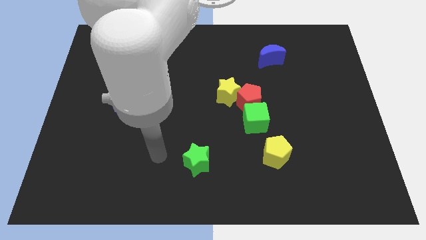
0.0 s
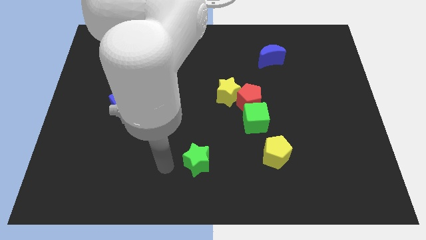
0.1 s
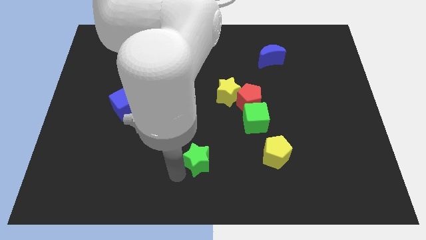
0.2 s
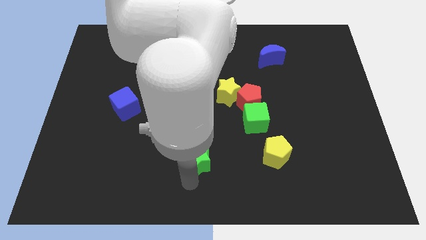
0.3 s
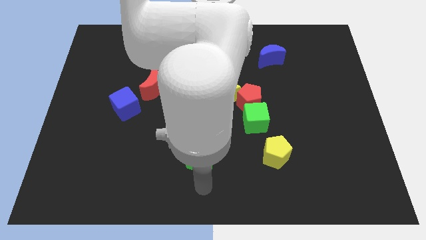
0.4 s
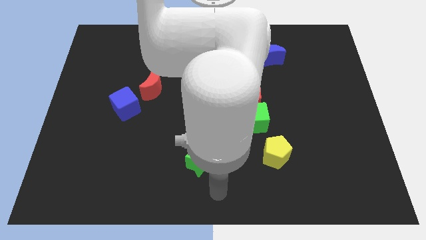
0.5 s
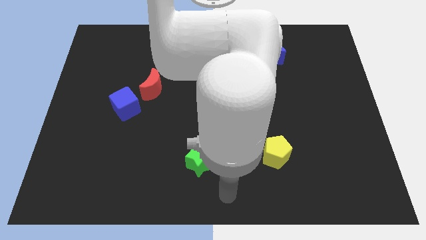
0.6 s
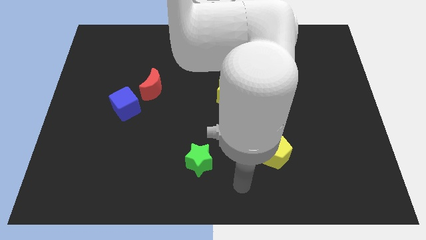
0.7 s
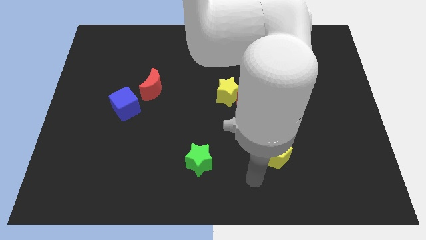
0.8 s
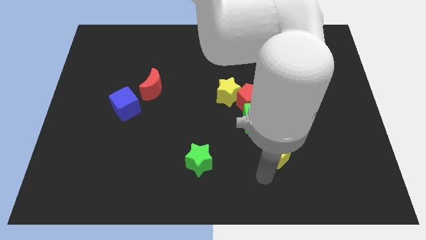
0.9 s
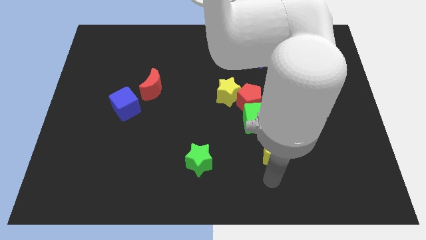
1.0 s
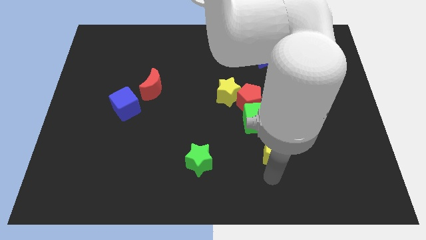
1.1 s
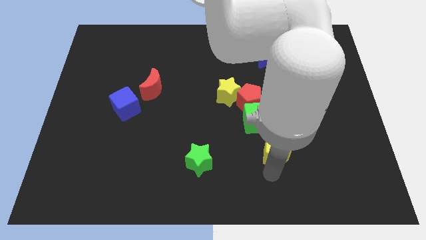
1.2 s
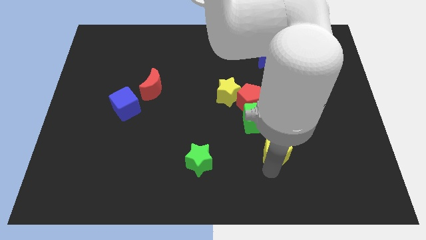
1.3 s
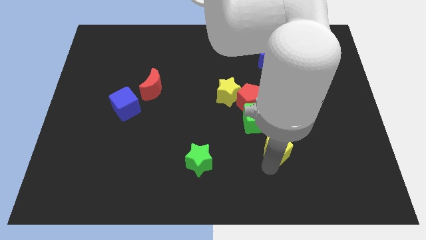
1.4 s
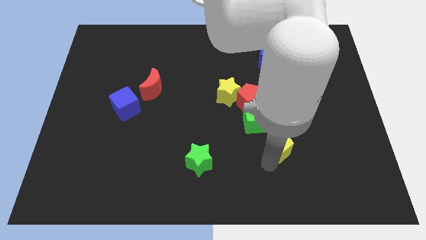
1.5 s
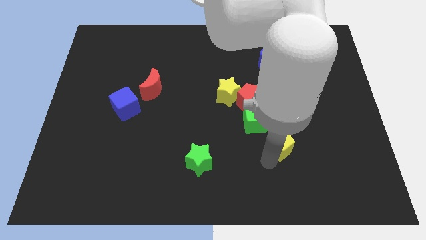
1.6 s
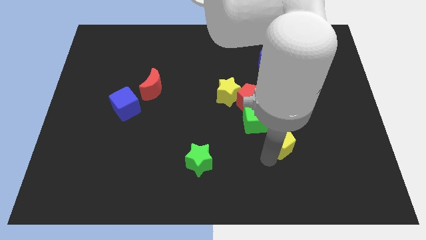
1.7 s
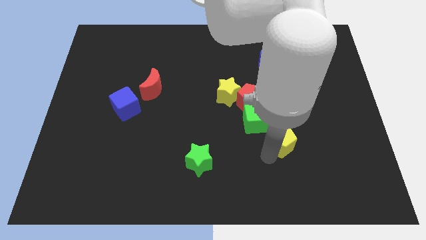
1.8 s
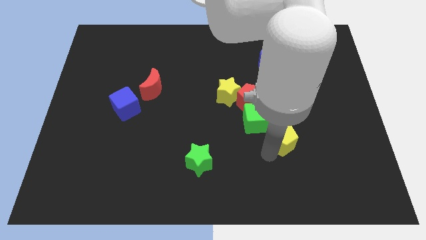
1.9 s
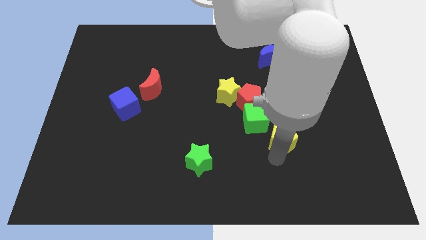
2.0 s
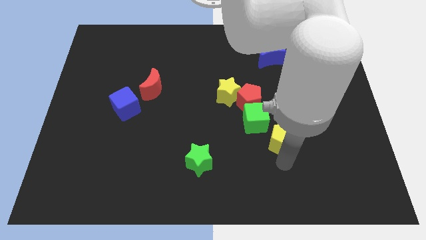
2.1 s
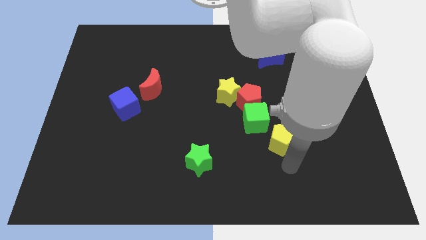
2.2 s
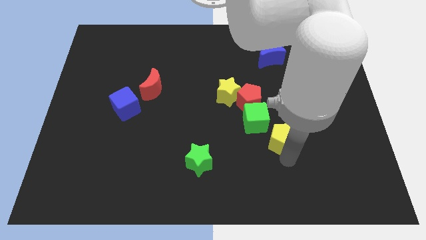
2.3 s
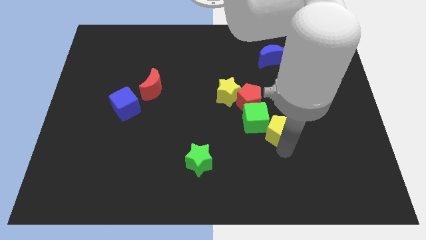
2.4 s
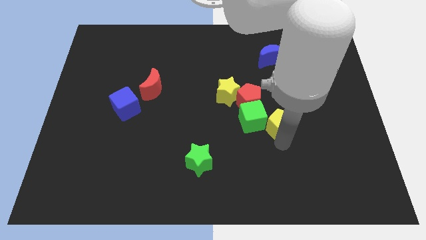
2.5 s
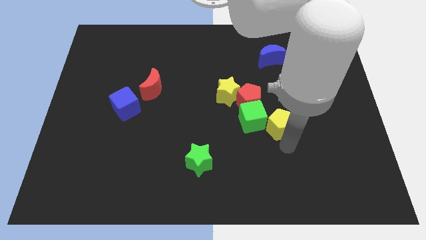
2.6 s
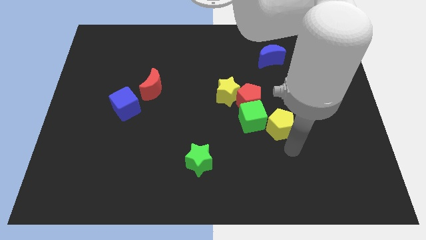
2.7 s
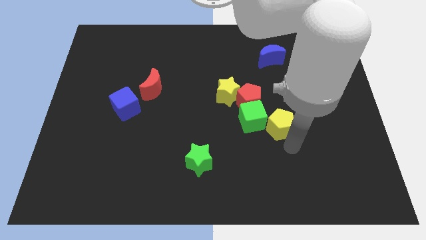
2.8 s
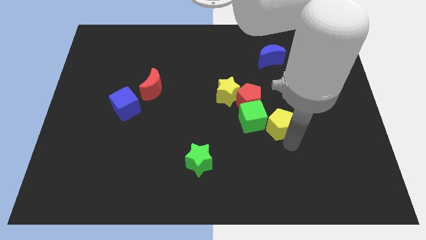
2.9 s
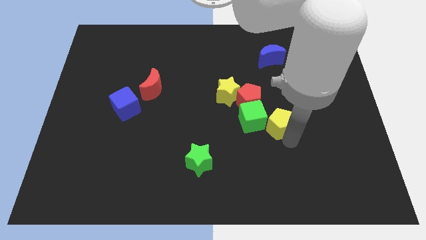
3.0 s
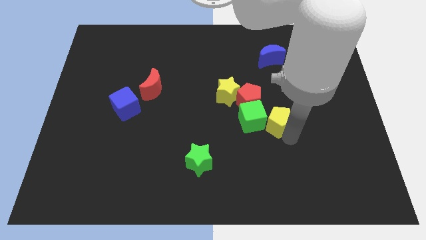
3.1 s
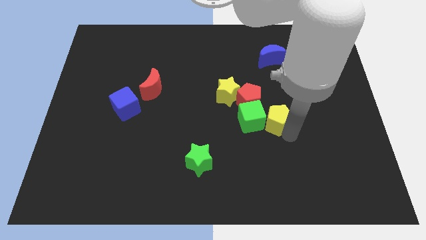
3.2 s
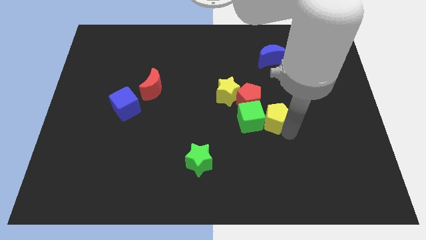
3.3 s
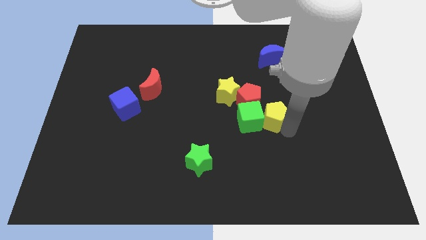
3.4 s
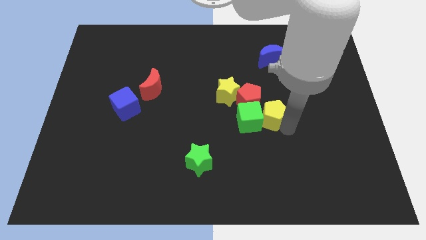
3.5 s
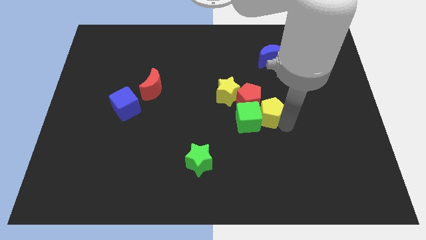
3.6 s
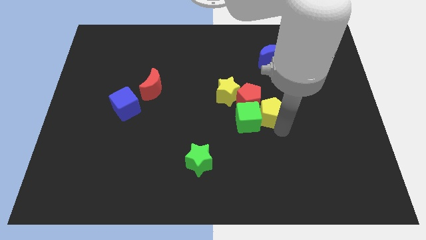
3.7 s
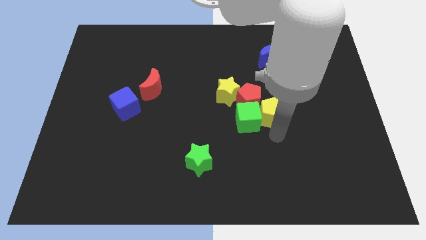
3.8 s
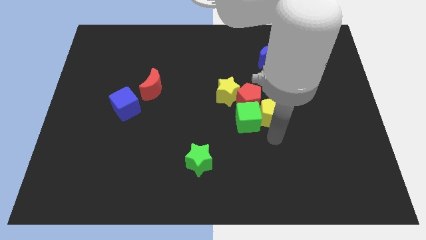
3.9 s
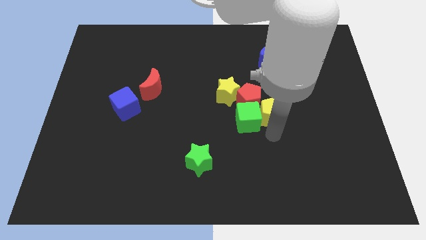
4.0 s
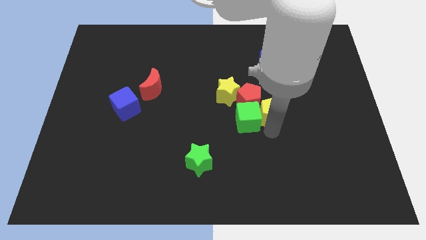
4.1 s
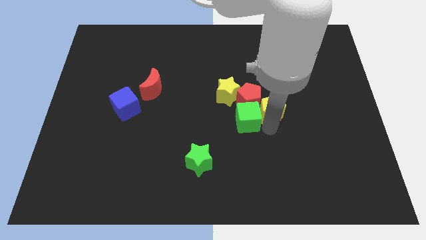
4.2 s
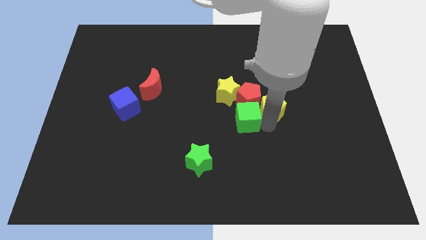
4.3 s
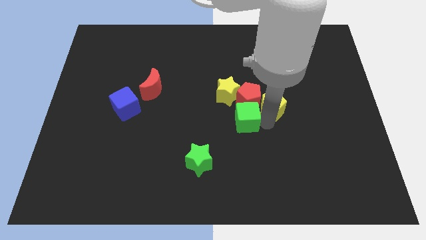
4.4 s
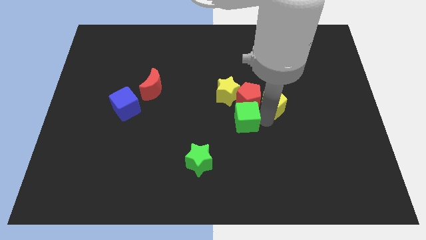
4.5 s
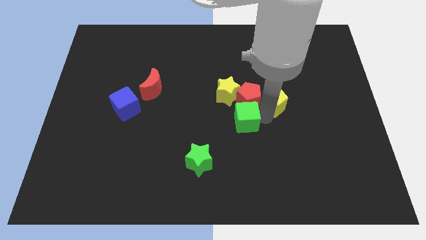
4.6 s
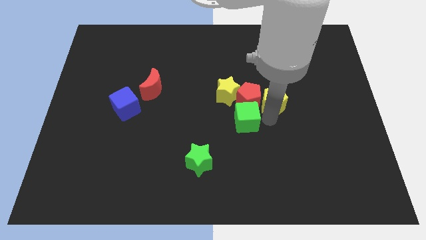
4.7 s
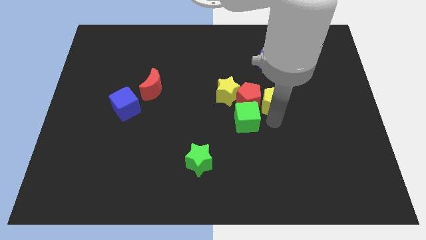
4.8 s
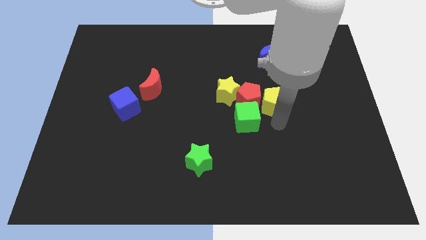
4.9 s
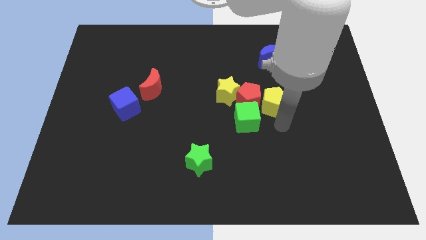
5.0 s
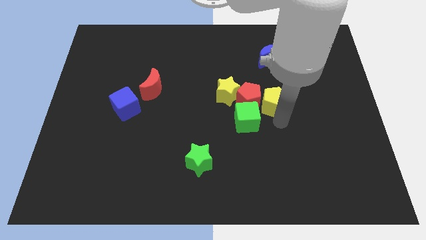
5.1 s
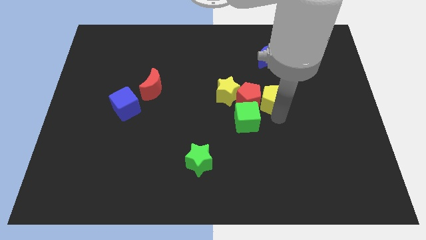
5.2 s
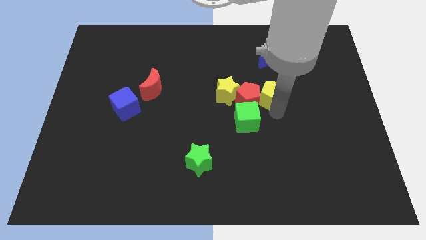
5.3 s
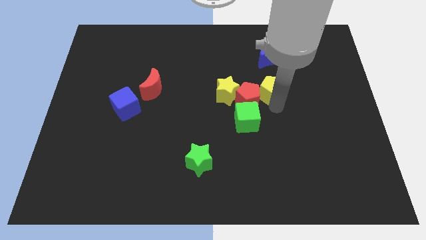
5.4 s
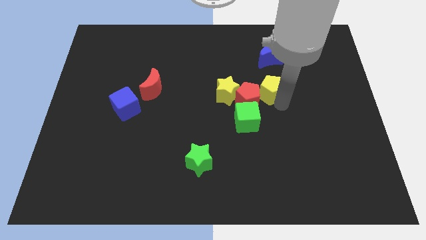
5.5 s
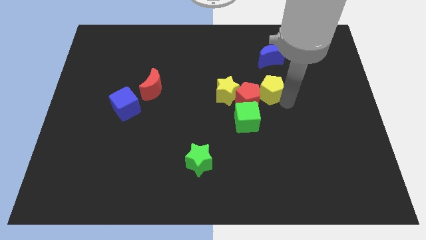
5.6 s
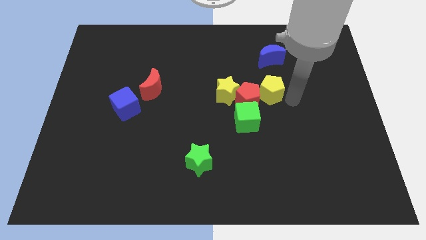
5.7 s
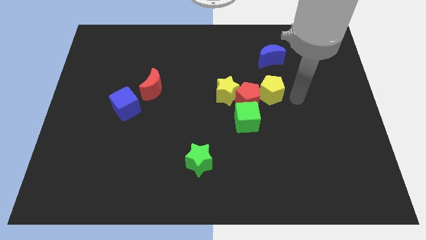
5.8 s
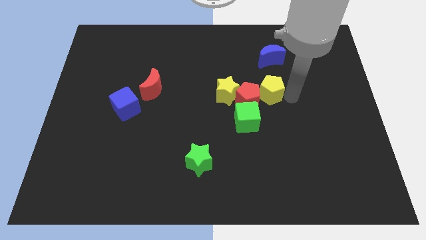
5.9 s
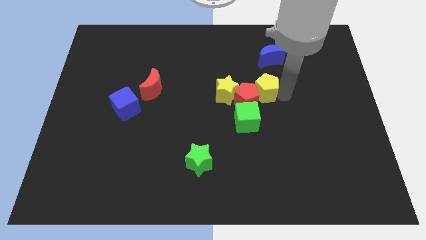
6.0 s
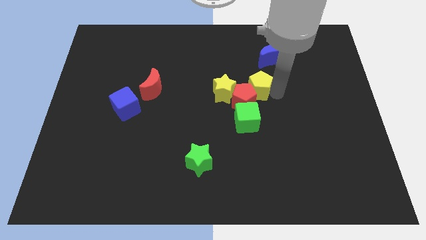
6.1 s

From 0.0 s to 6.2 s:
push the yellow pentagon to the top of the green cube

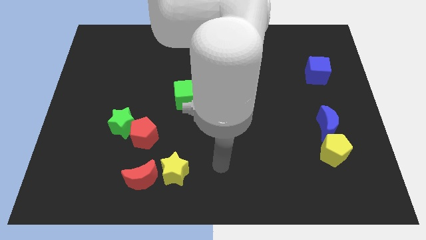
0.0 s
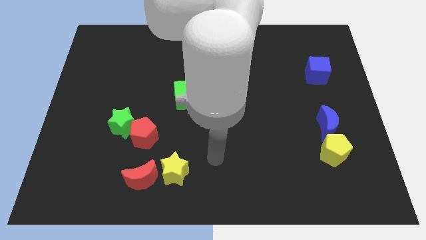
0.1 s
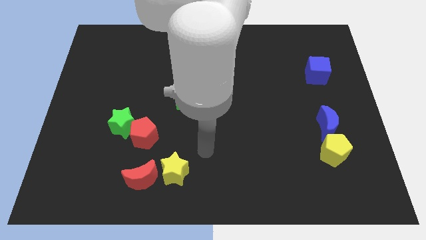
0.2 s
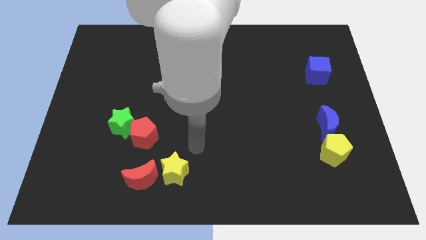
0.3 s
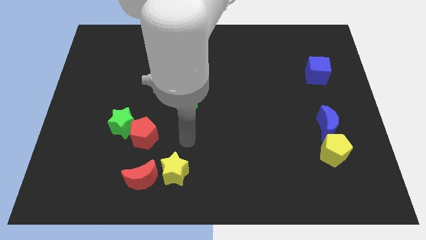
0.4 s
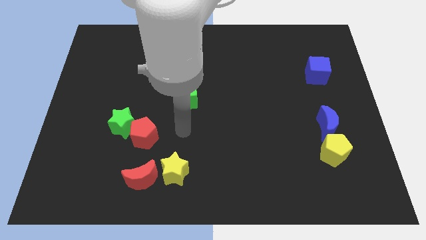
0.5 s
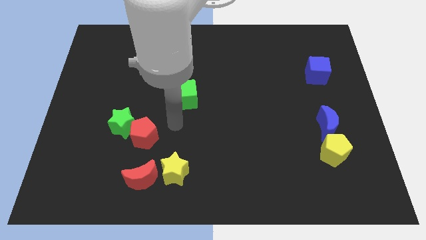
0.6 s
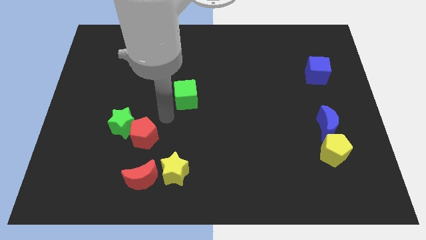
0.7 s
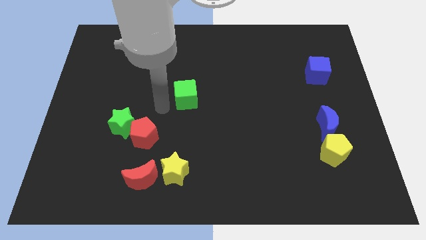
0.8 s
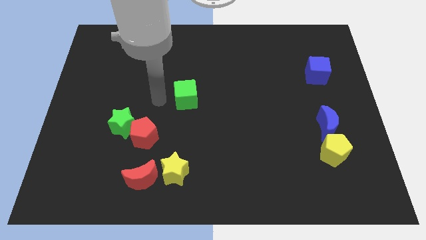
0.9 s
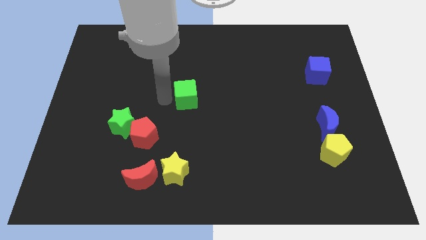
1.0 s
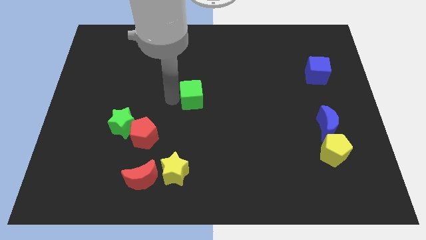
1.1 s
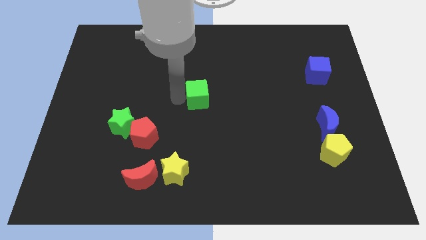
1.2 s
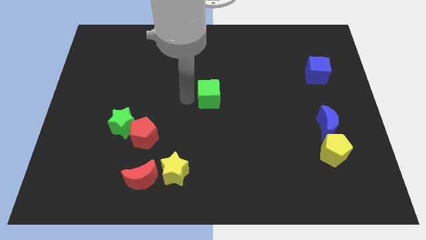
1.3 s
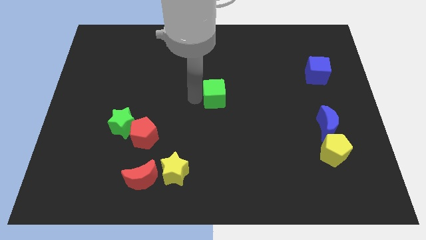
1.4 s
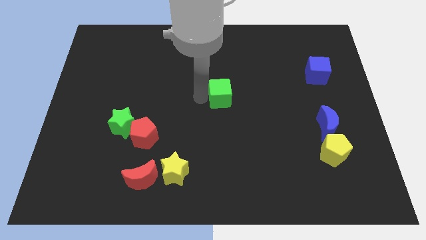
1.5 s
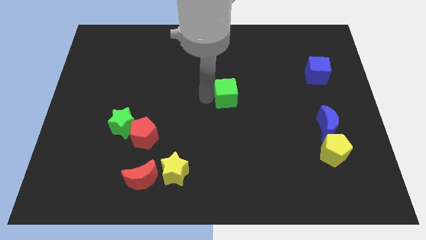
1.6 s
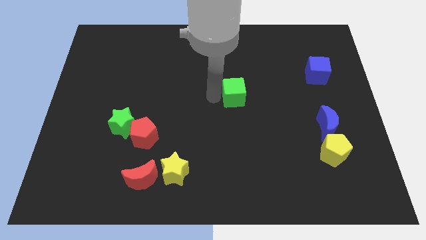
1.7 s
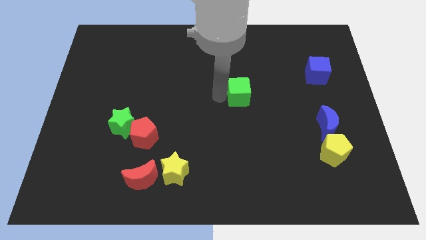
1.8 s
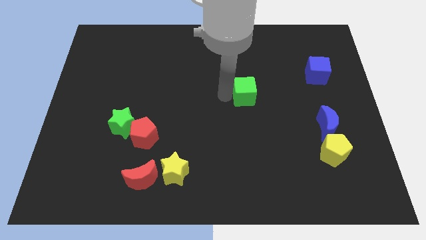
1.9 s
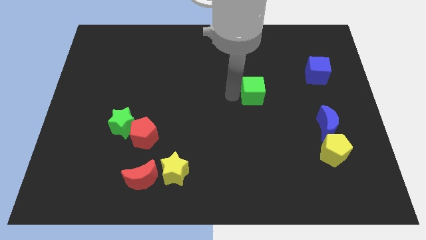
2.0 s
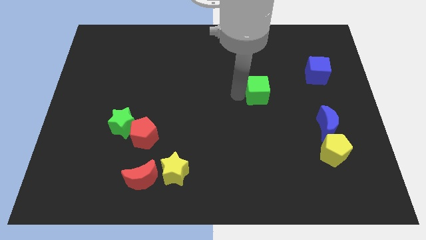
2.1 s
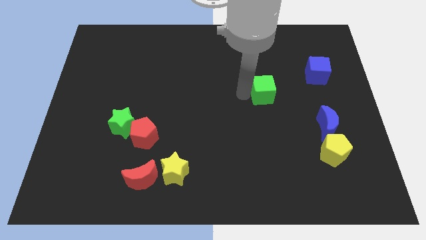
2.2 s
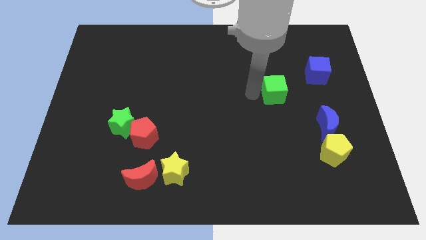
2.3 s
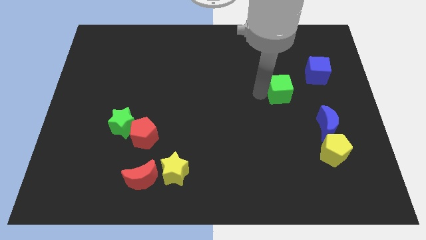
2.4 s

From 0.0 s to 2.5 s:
slide the green cube diagonally down and to the left of the blue cube
